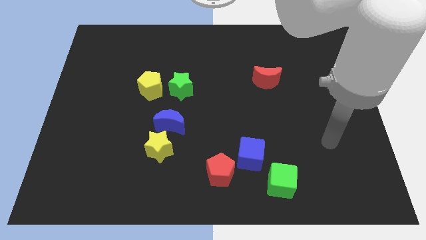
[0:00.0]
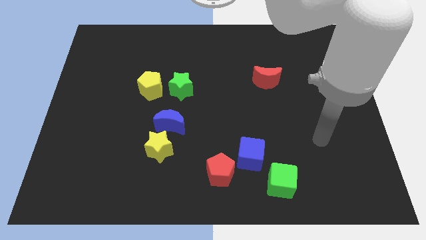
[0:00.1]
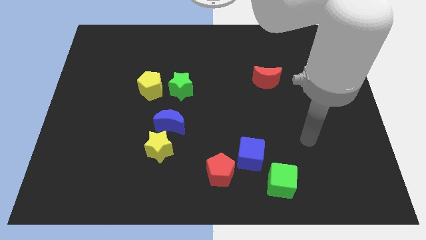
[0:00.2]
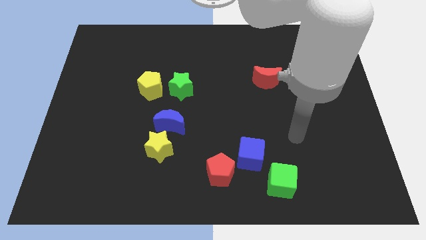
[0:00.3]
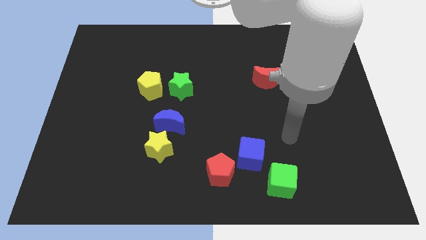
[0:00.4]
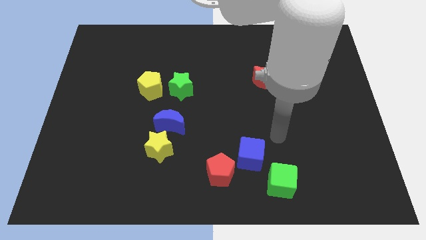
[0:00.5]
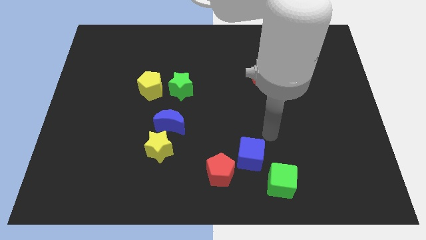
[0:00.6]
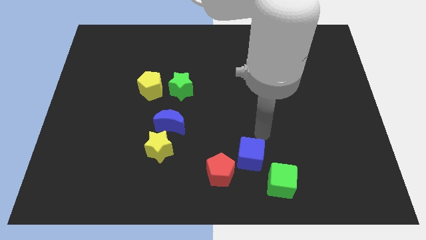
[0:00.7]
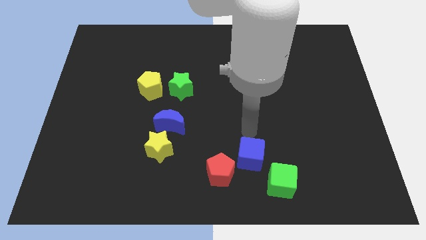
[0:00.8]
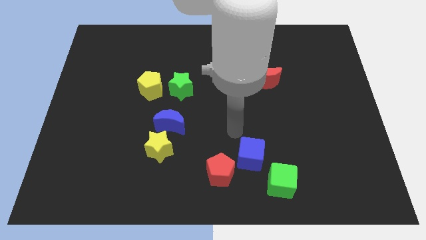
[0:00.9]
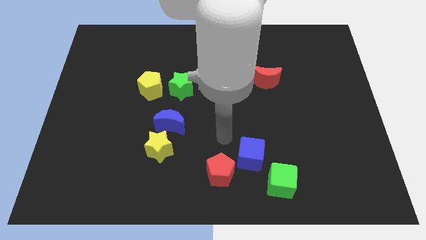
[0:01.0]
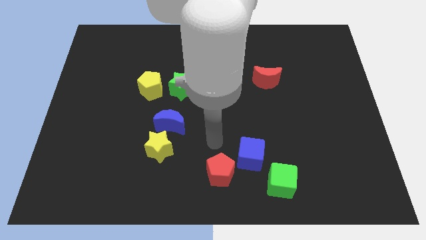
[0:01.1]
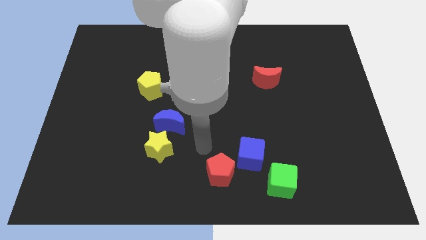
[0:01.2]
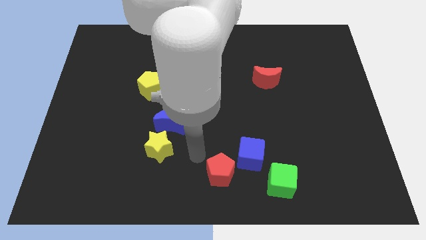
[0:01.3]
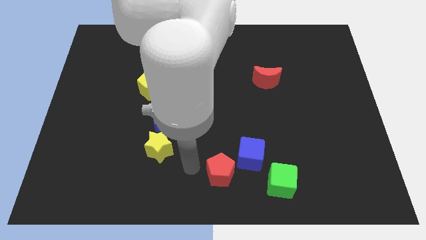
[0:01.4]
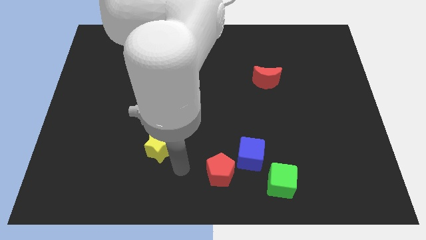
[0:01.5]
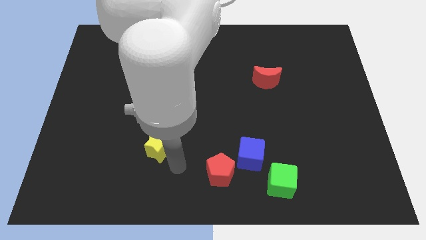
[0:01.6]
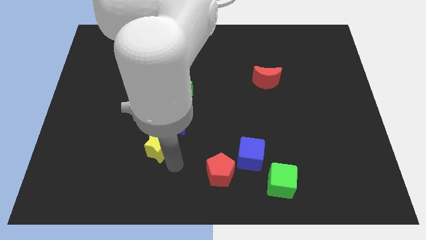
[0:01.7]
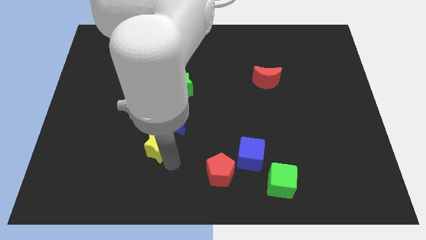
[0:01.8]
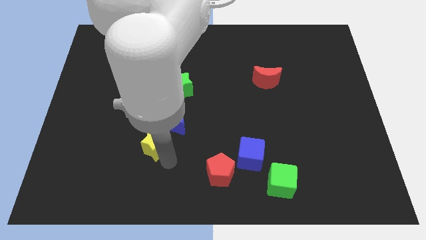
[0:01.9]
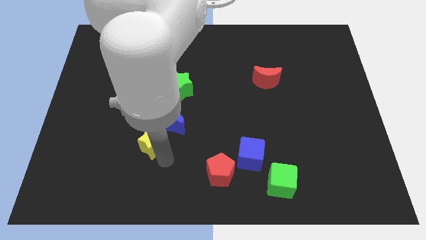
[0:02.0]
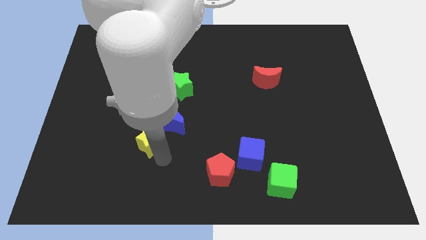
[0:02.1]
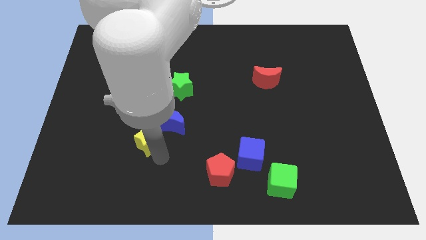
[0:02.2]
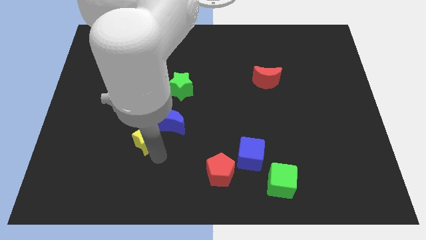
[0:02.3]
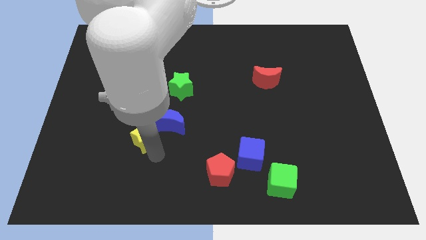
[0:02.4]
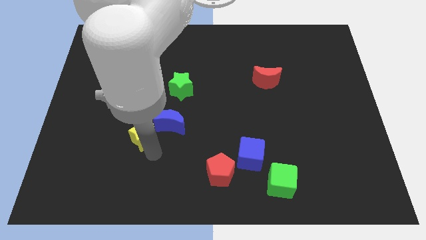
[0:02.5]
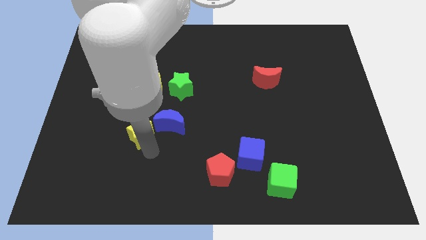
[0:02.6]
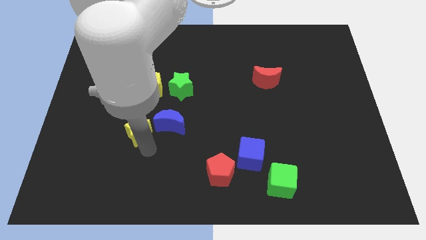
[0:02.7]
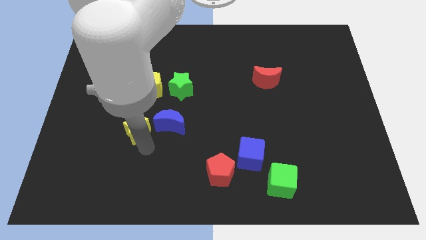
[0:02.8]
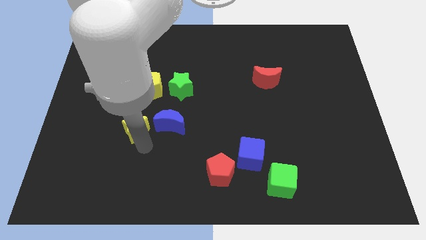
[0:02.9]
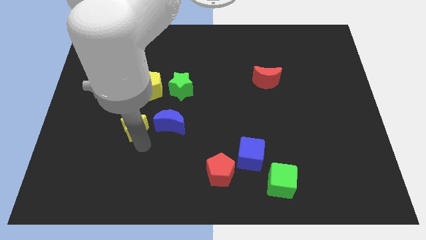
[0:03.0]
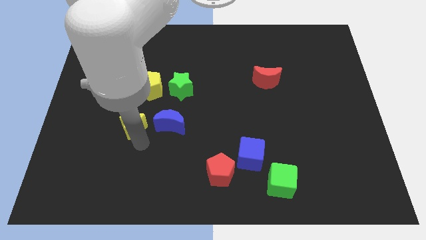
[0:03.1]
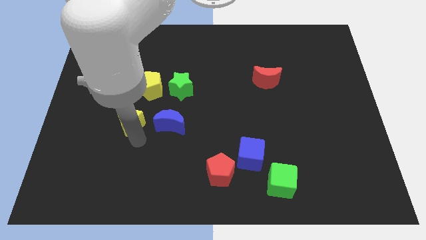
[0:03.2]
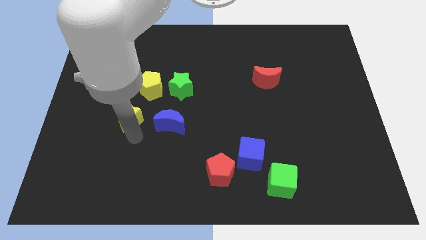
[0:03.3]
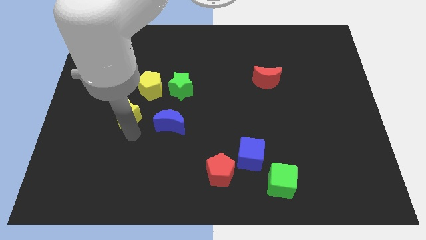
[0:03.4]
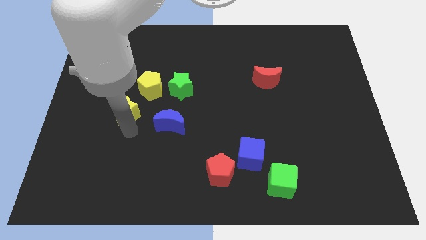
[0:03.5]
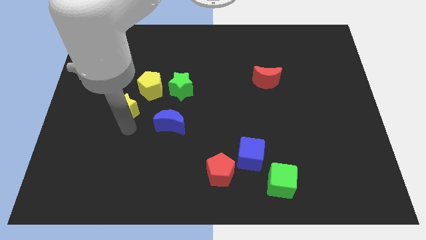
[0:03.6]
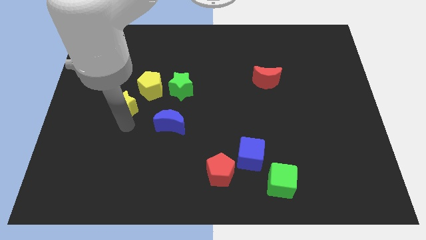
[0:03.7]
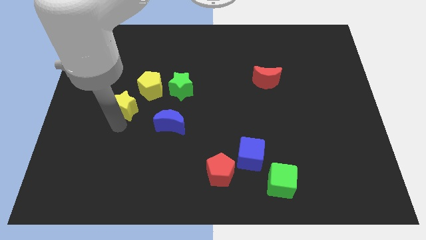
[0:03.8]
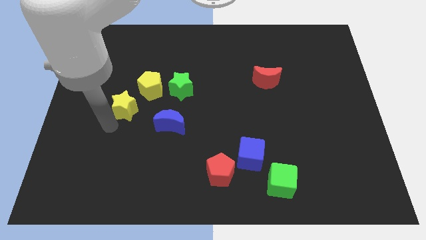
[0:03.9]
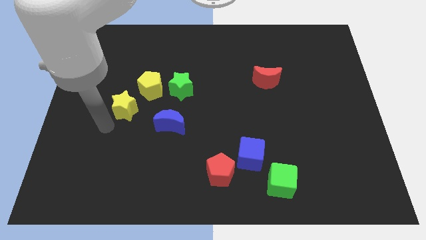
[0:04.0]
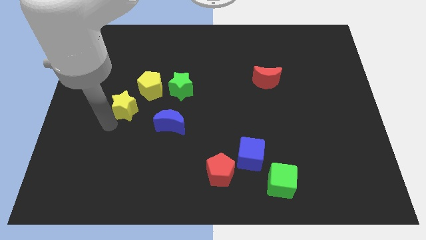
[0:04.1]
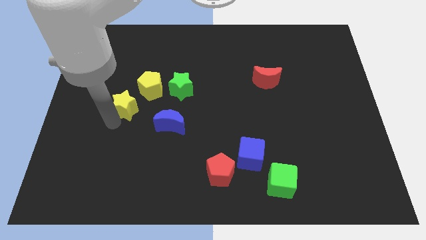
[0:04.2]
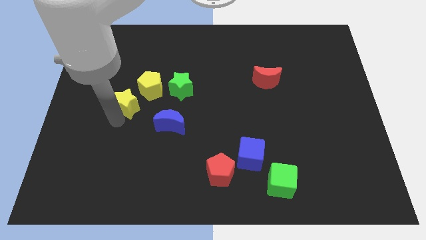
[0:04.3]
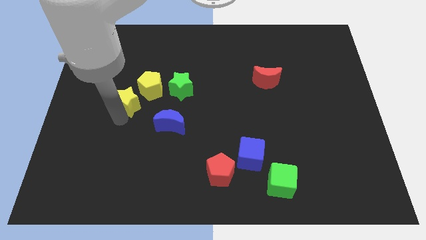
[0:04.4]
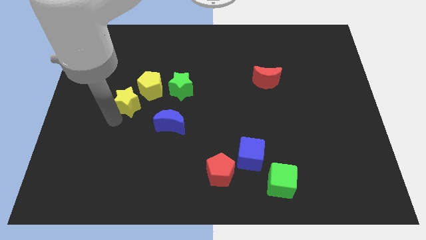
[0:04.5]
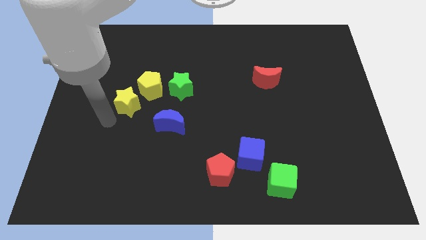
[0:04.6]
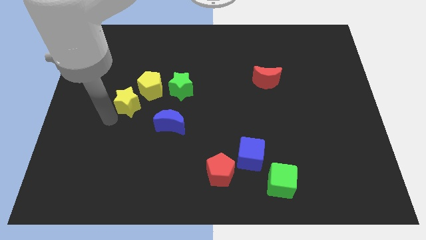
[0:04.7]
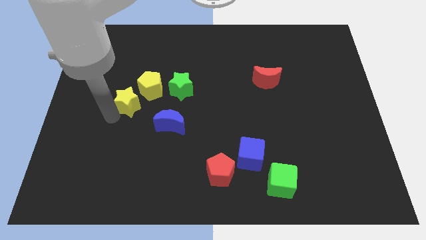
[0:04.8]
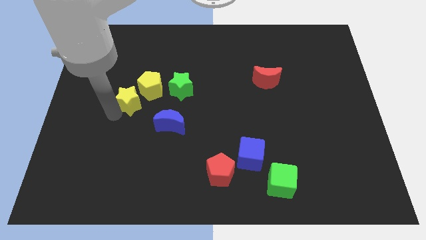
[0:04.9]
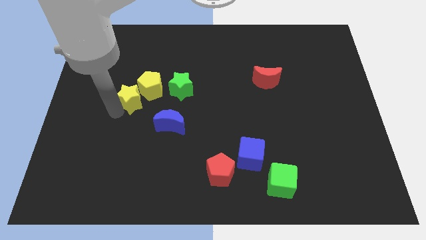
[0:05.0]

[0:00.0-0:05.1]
move the yellow star to the yellow pentagon

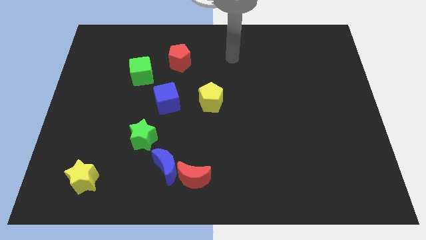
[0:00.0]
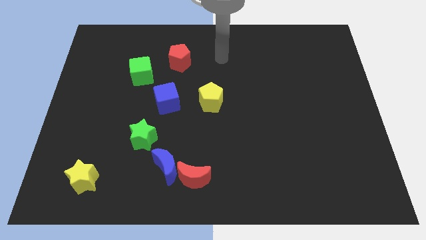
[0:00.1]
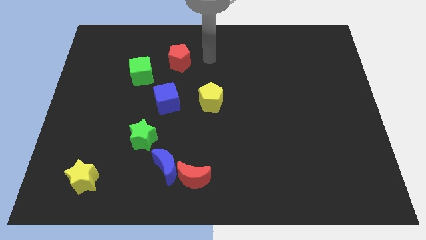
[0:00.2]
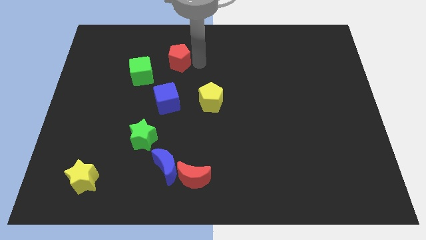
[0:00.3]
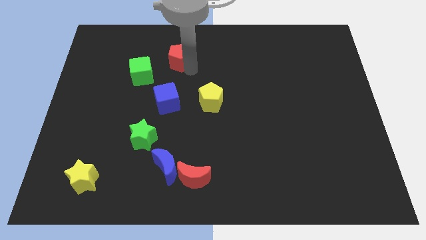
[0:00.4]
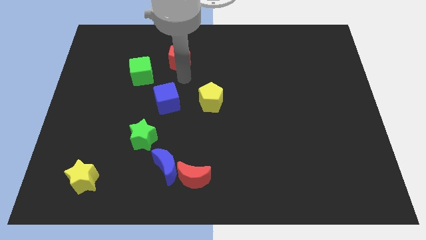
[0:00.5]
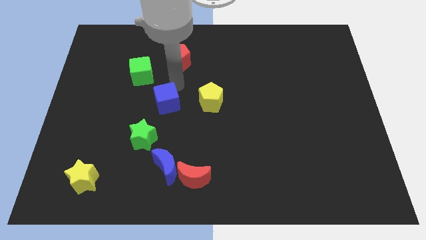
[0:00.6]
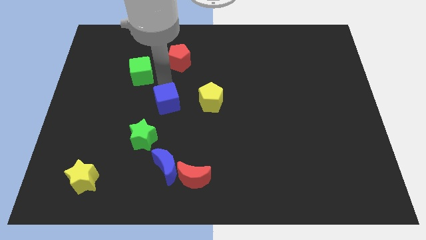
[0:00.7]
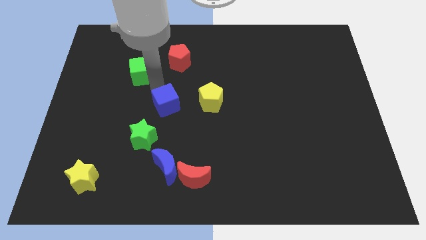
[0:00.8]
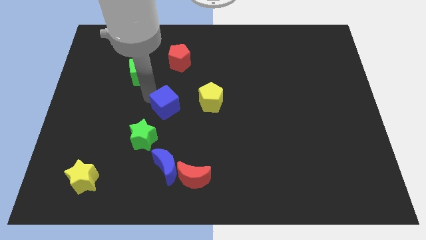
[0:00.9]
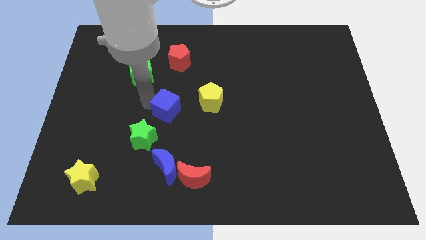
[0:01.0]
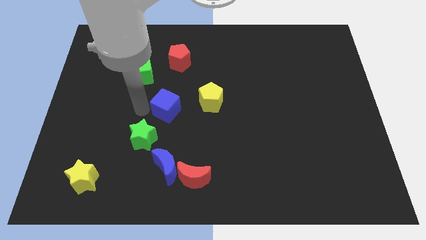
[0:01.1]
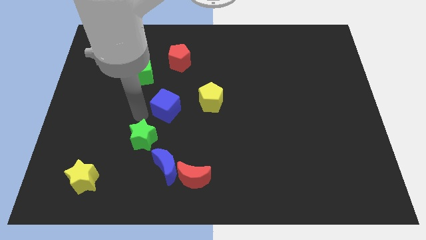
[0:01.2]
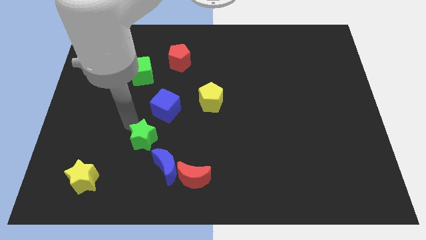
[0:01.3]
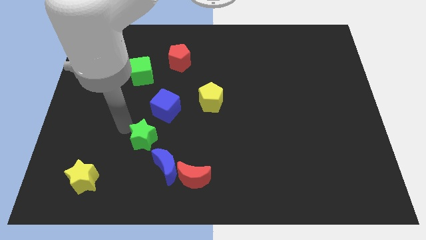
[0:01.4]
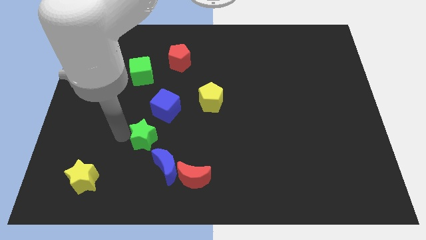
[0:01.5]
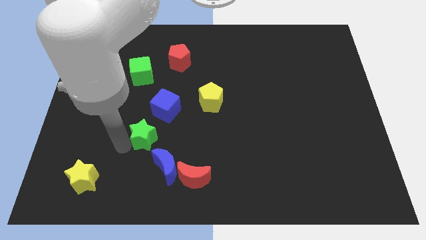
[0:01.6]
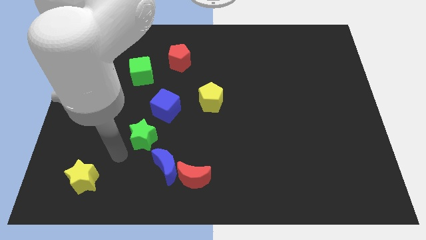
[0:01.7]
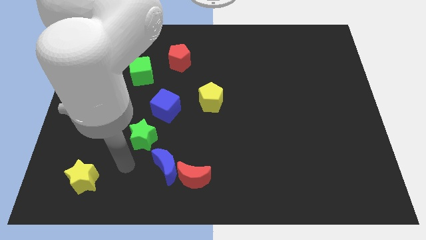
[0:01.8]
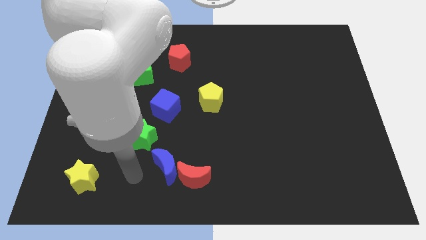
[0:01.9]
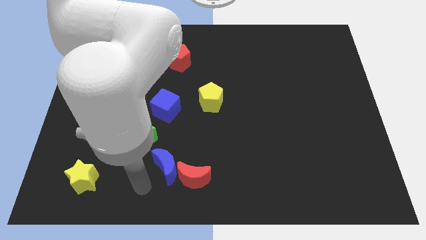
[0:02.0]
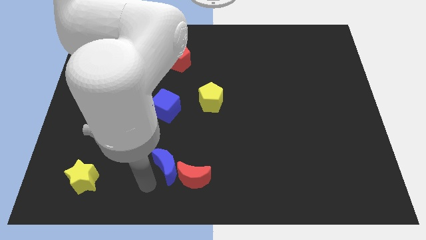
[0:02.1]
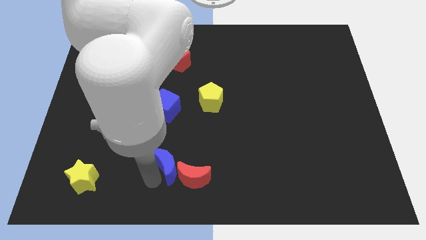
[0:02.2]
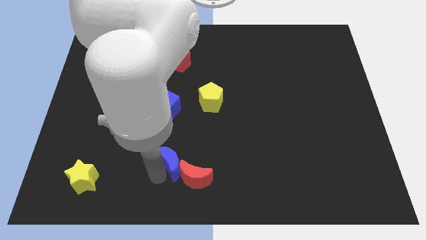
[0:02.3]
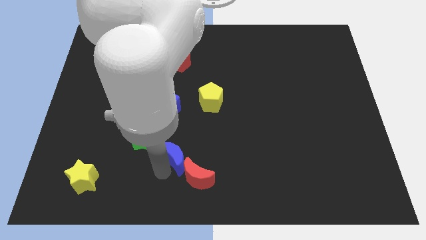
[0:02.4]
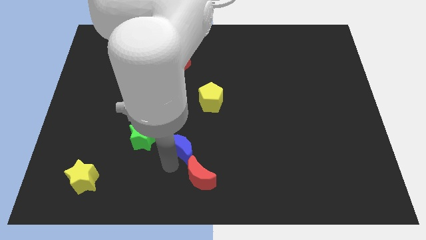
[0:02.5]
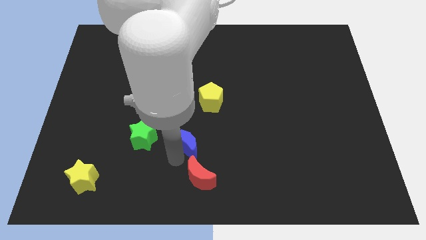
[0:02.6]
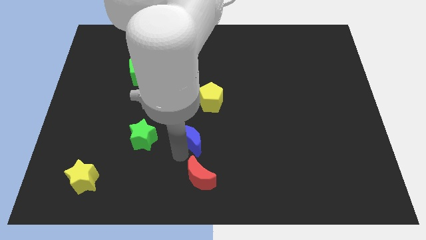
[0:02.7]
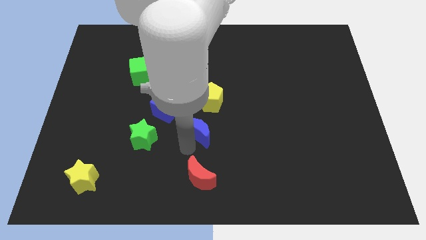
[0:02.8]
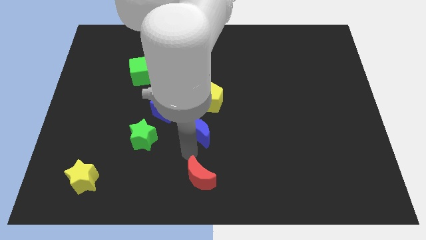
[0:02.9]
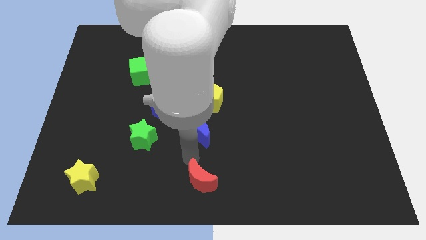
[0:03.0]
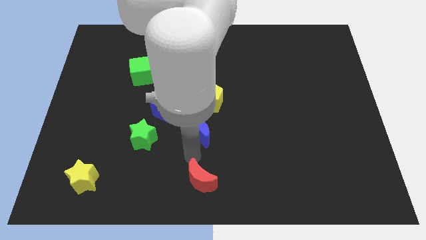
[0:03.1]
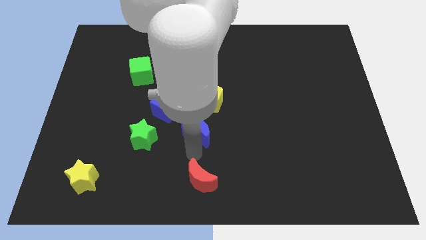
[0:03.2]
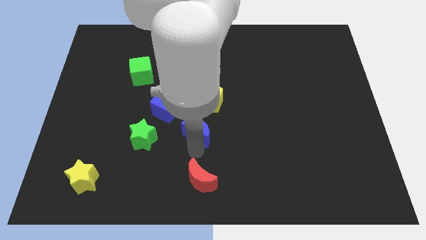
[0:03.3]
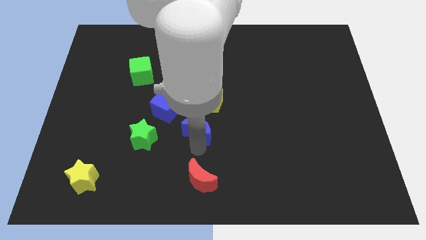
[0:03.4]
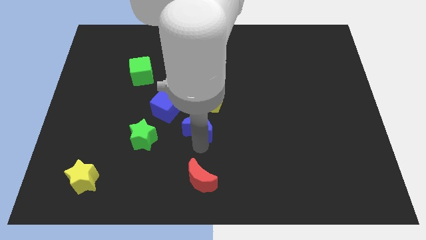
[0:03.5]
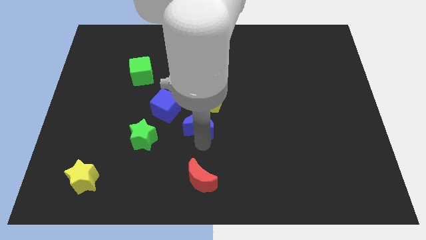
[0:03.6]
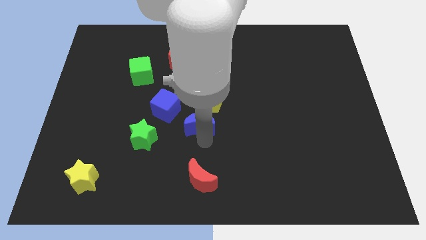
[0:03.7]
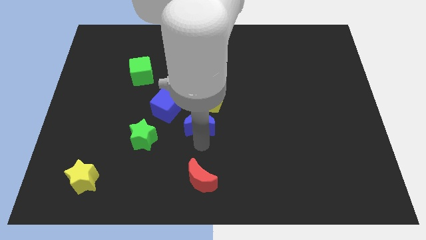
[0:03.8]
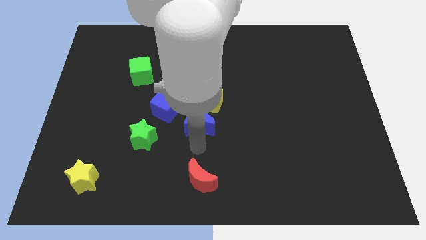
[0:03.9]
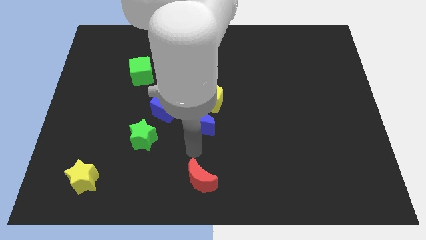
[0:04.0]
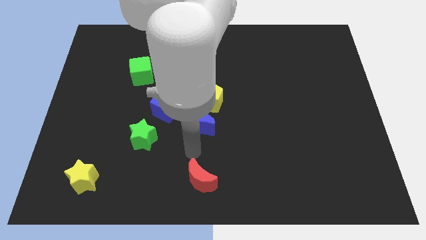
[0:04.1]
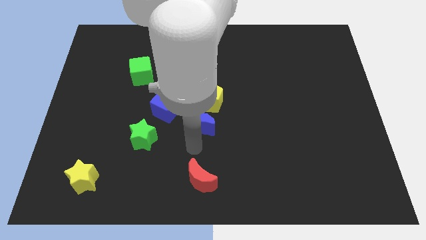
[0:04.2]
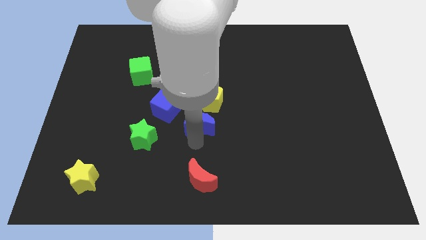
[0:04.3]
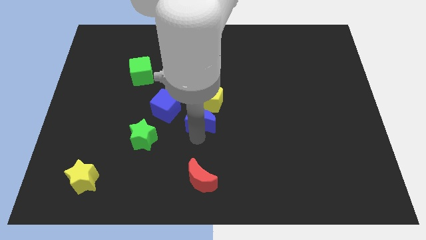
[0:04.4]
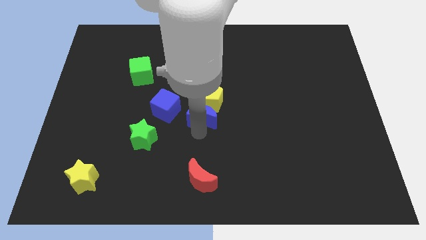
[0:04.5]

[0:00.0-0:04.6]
push the blue moon towards the yellow pentagon
